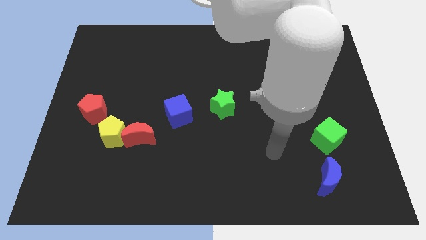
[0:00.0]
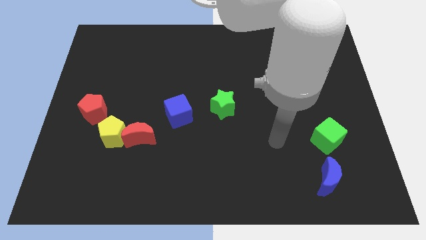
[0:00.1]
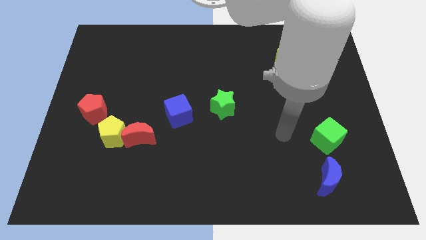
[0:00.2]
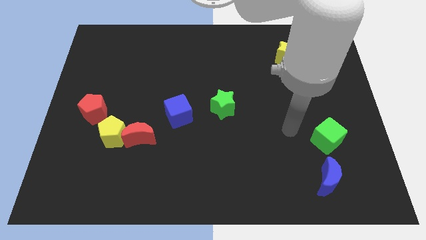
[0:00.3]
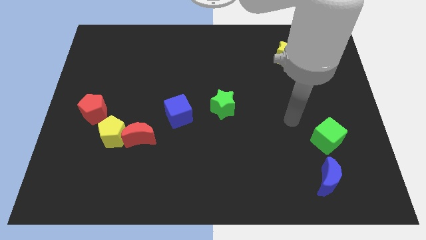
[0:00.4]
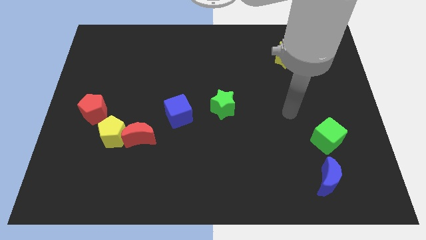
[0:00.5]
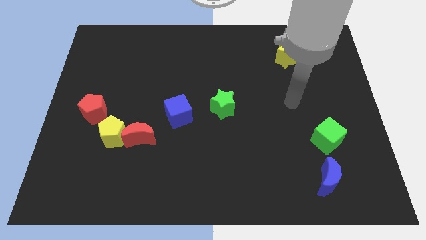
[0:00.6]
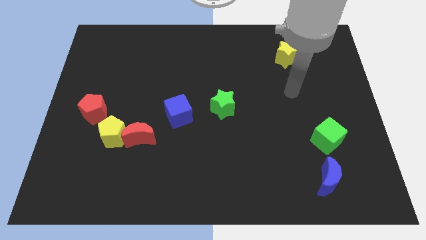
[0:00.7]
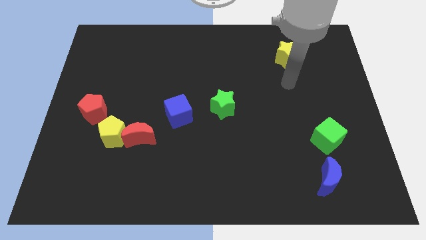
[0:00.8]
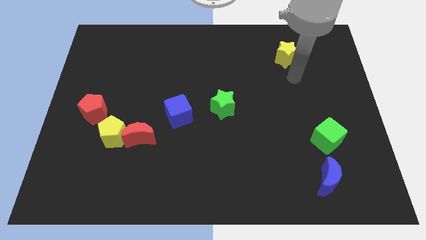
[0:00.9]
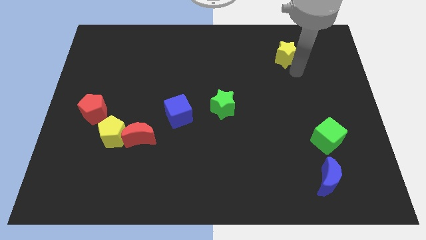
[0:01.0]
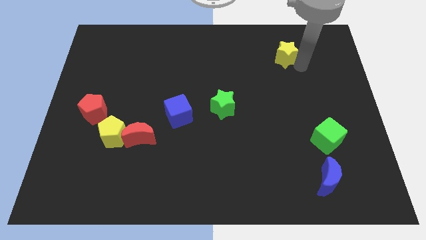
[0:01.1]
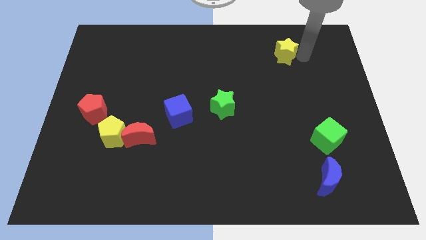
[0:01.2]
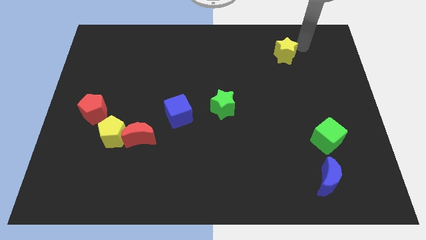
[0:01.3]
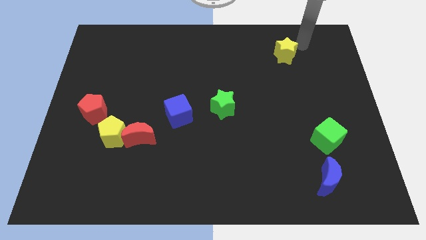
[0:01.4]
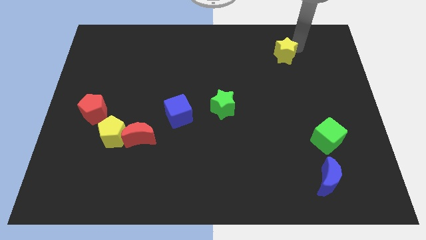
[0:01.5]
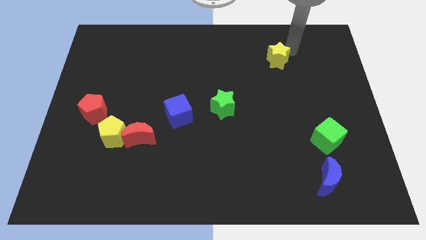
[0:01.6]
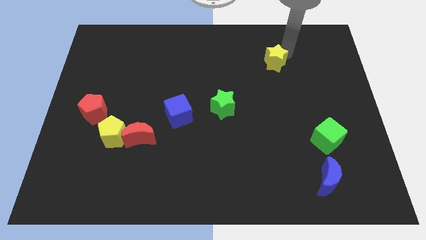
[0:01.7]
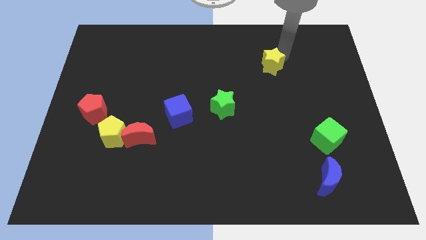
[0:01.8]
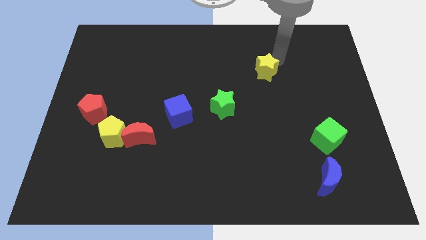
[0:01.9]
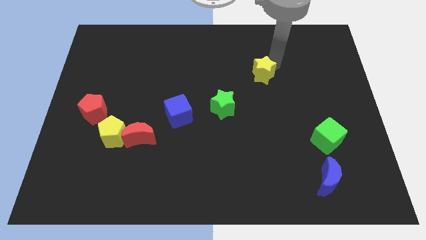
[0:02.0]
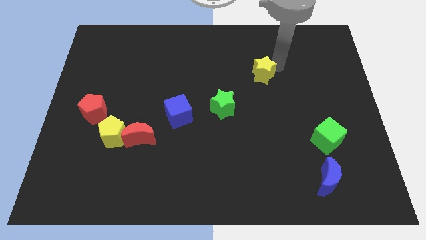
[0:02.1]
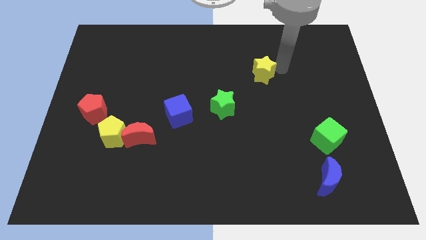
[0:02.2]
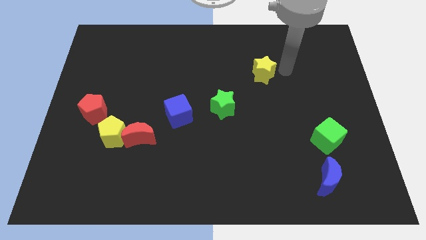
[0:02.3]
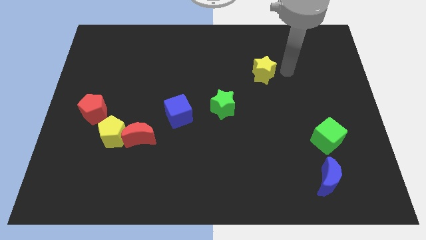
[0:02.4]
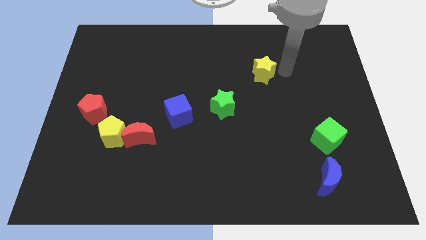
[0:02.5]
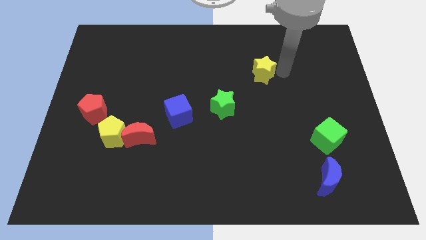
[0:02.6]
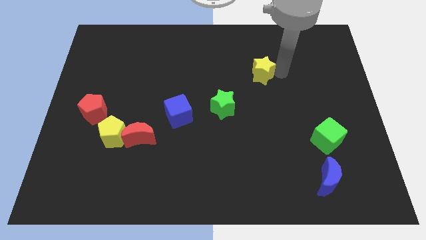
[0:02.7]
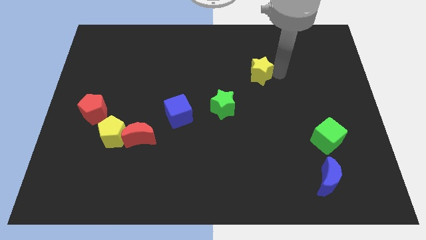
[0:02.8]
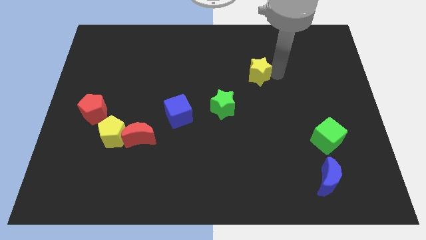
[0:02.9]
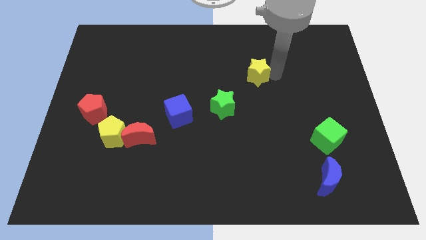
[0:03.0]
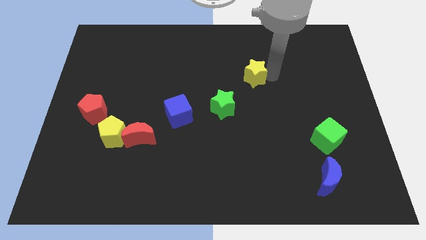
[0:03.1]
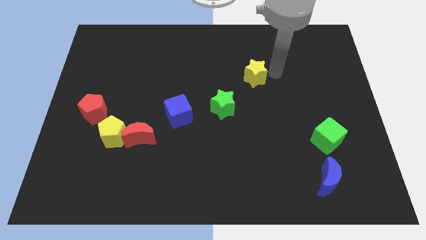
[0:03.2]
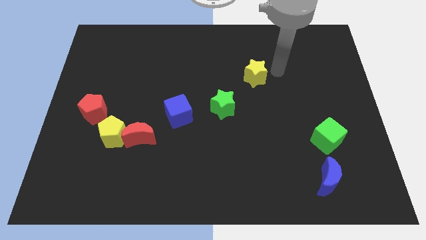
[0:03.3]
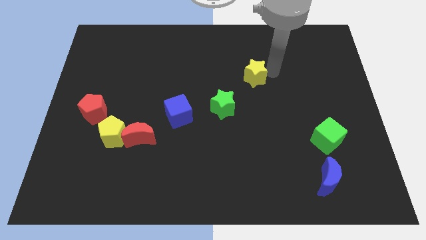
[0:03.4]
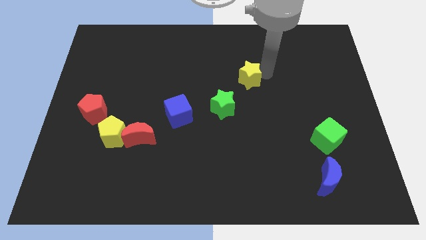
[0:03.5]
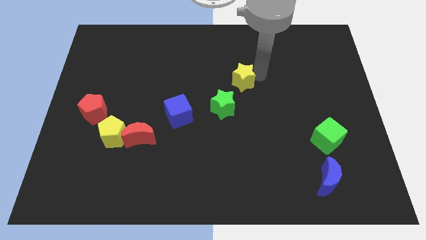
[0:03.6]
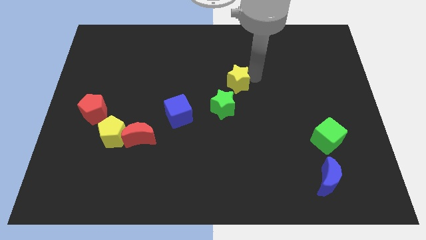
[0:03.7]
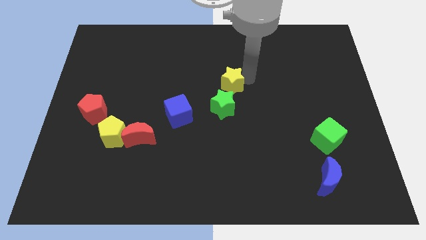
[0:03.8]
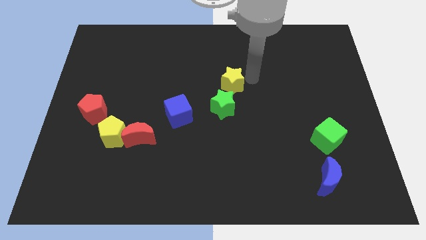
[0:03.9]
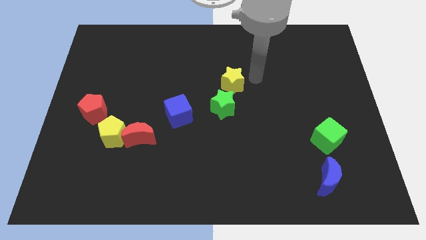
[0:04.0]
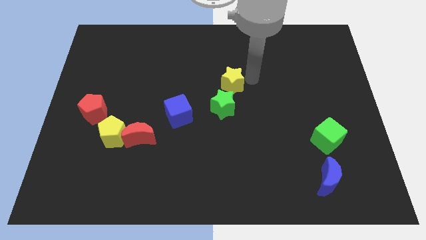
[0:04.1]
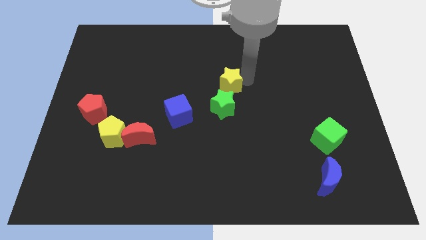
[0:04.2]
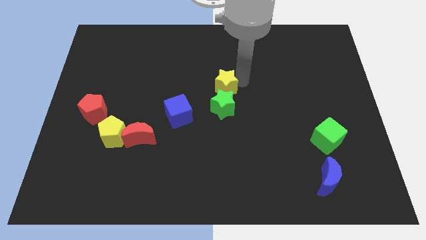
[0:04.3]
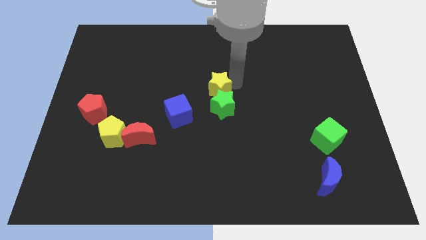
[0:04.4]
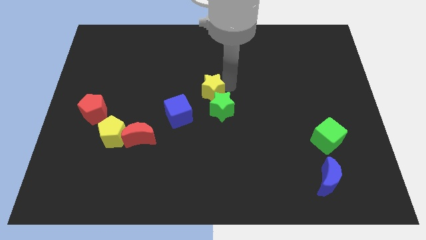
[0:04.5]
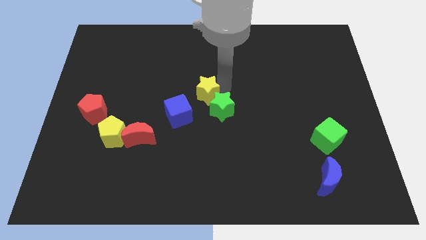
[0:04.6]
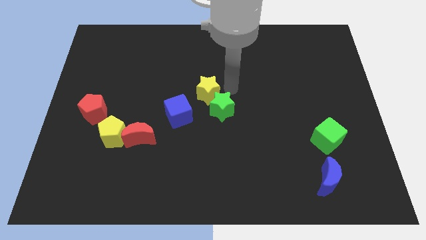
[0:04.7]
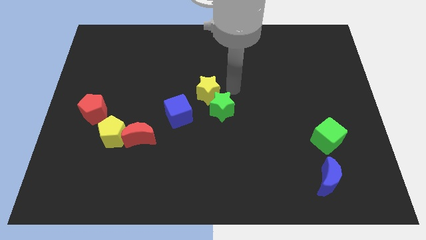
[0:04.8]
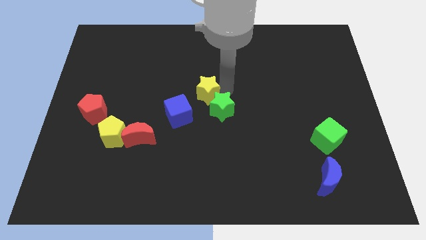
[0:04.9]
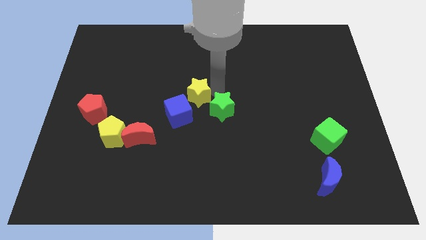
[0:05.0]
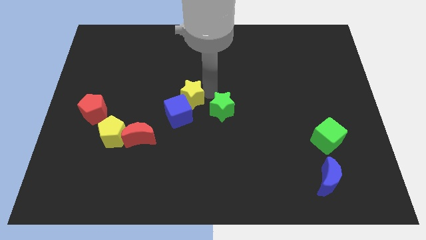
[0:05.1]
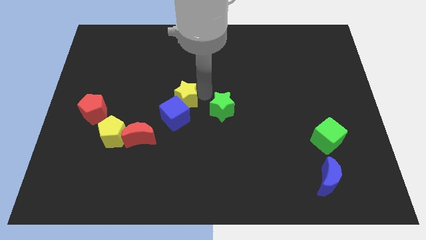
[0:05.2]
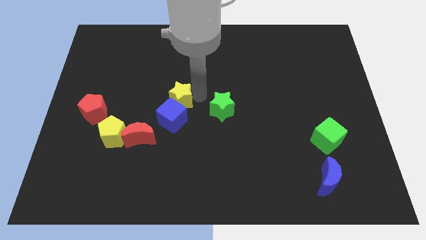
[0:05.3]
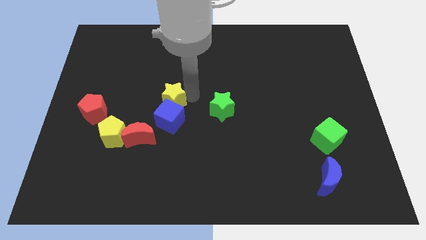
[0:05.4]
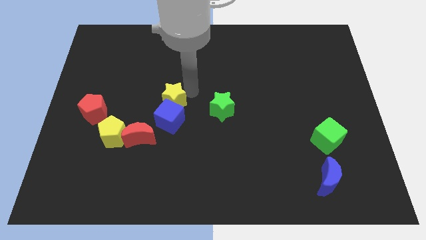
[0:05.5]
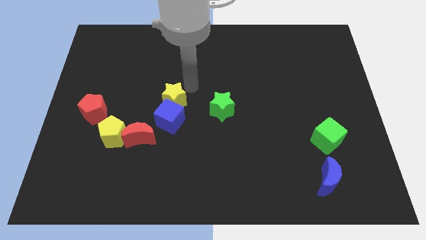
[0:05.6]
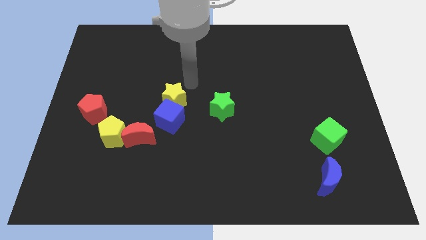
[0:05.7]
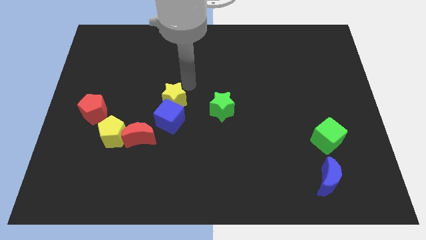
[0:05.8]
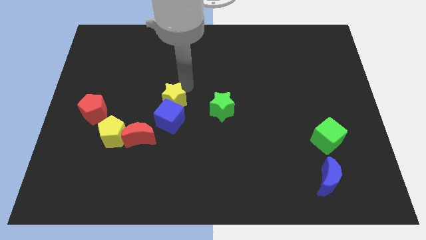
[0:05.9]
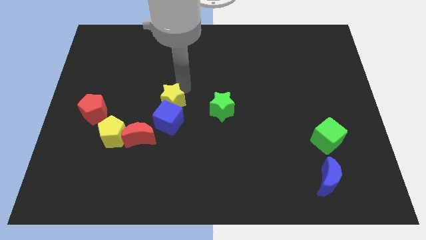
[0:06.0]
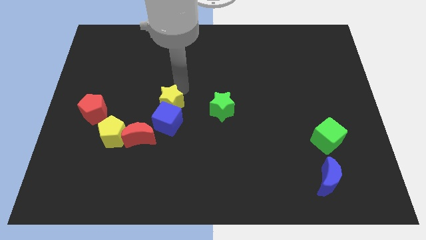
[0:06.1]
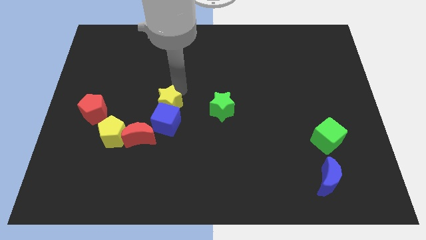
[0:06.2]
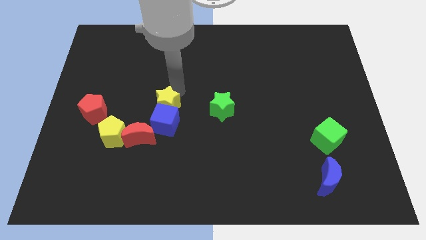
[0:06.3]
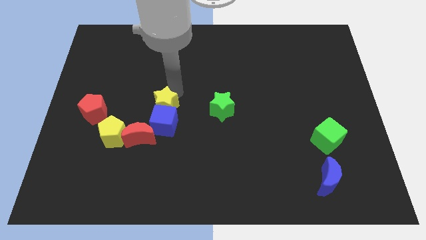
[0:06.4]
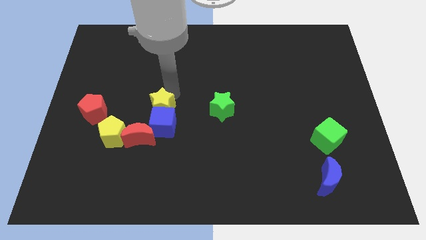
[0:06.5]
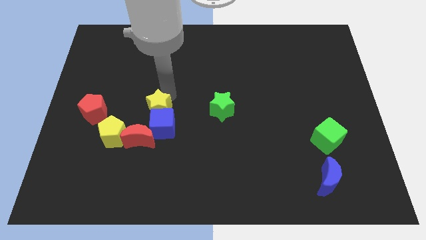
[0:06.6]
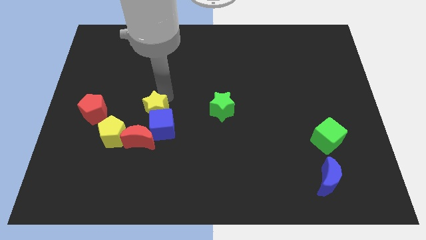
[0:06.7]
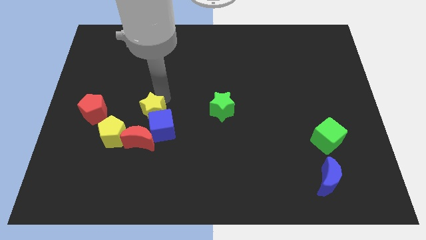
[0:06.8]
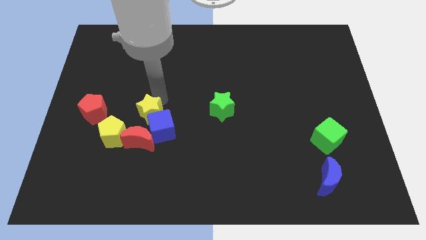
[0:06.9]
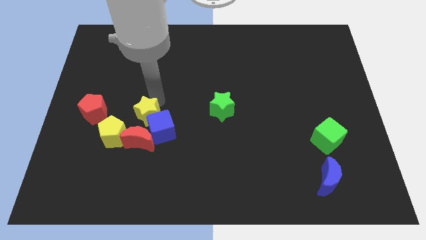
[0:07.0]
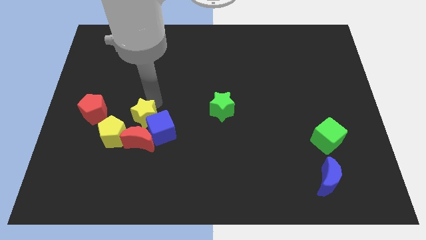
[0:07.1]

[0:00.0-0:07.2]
move the yellow star to the right side of the yellow pentagon
